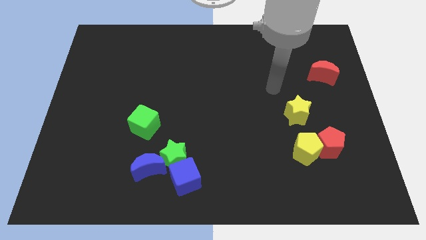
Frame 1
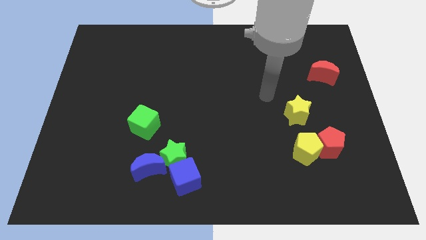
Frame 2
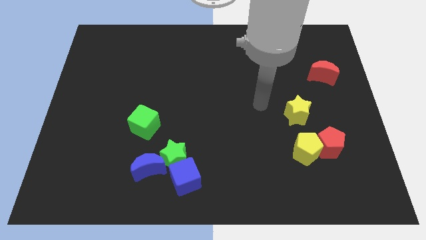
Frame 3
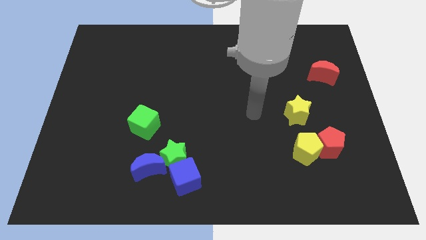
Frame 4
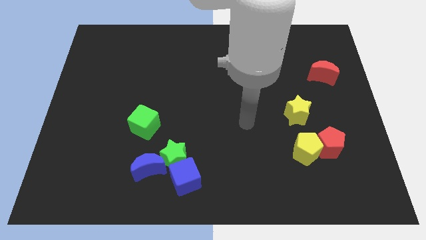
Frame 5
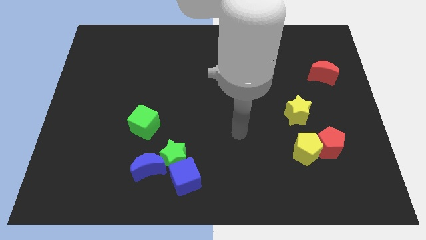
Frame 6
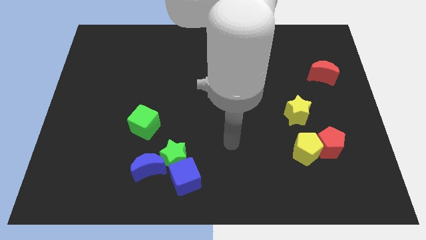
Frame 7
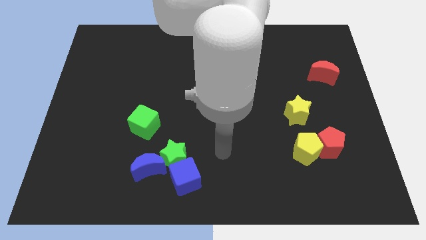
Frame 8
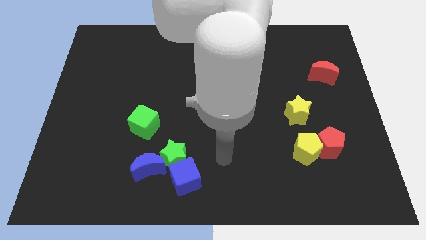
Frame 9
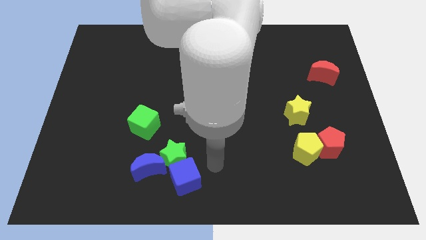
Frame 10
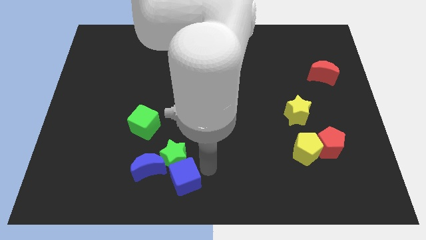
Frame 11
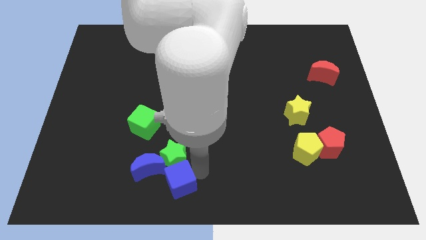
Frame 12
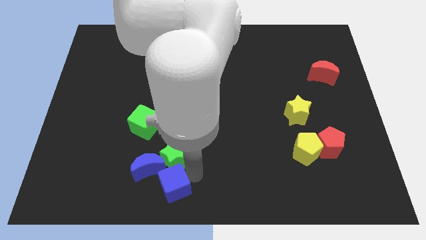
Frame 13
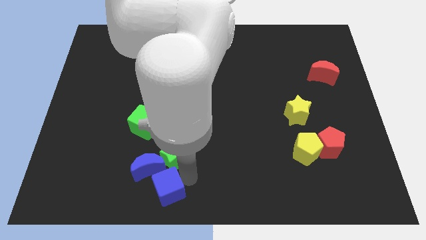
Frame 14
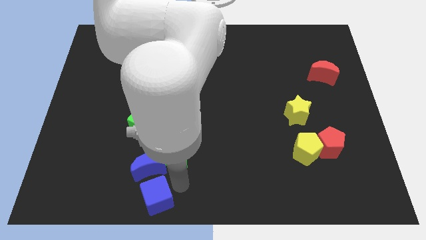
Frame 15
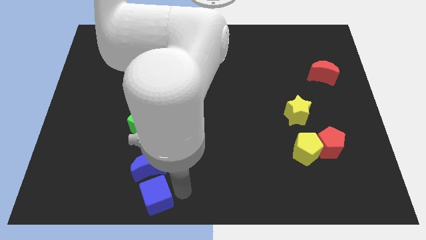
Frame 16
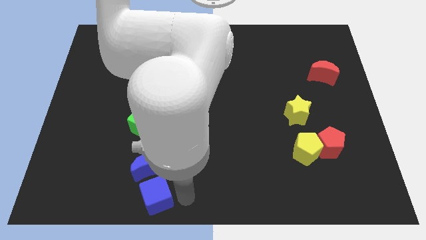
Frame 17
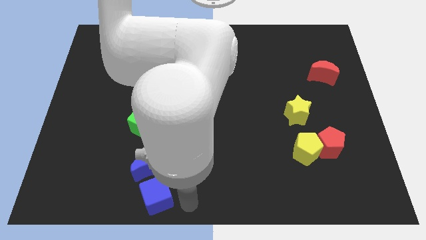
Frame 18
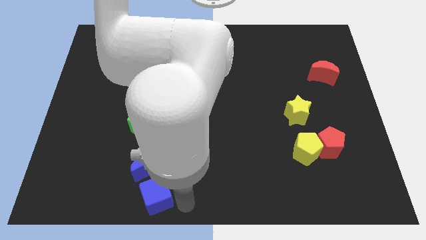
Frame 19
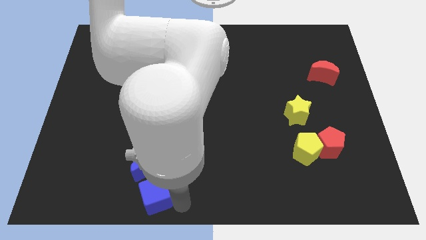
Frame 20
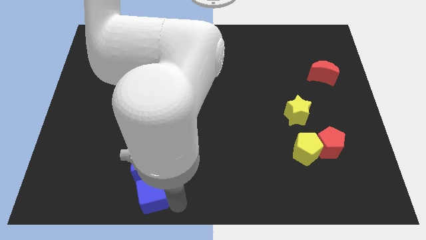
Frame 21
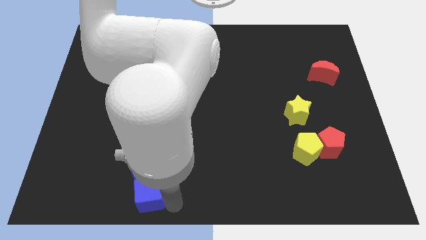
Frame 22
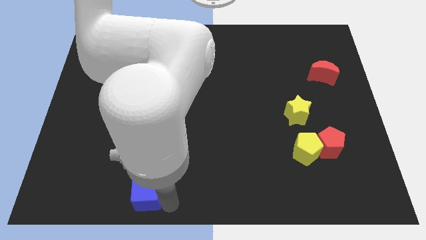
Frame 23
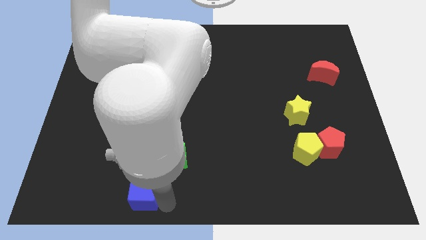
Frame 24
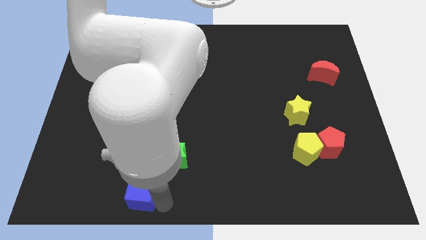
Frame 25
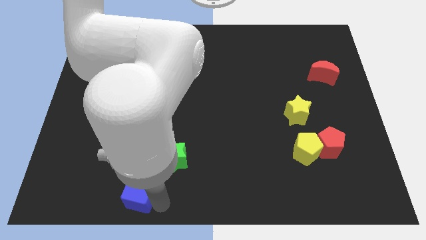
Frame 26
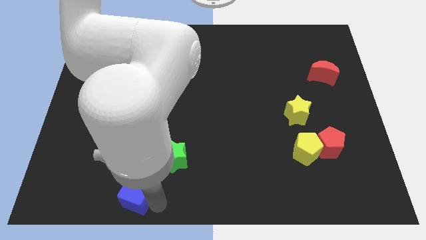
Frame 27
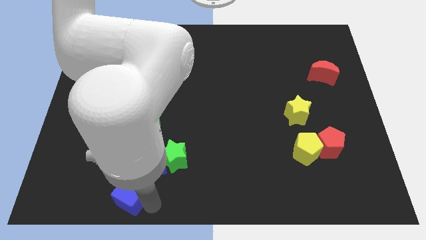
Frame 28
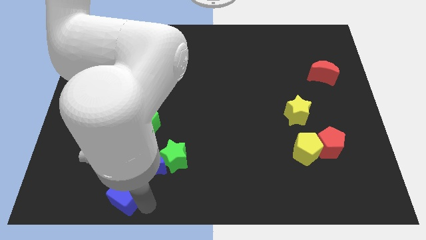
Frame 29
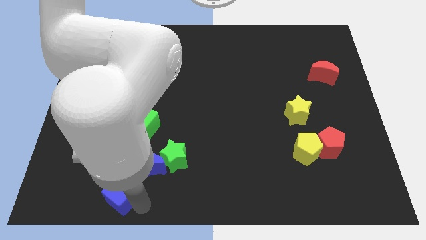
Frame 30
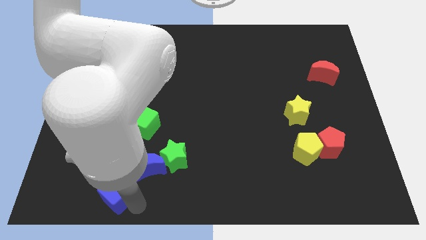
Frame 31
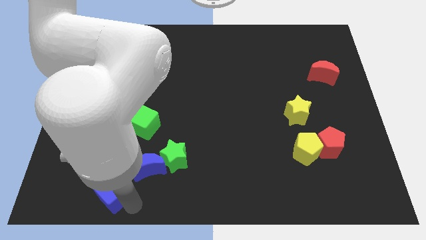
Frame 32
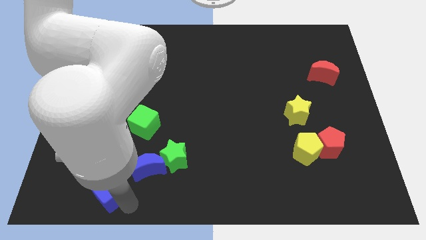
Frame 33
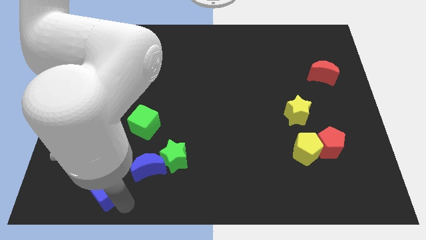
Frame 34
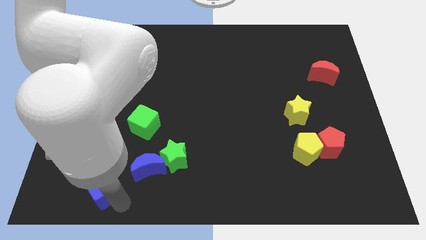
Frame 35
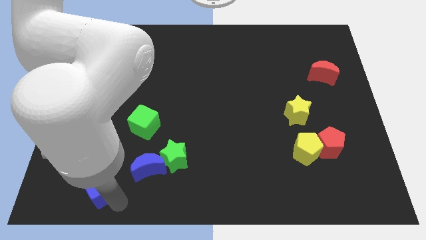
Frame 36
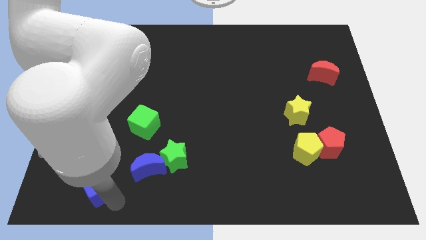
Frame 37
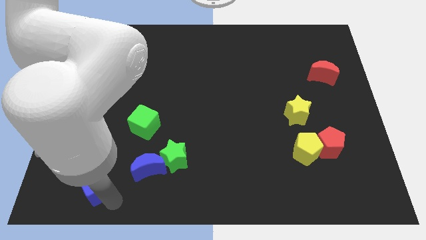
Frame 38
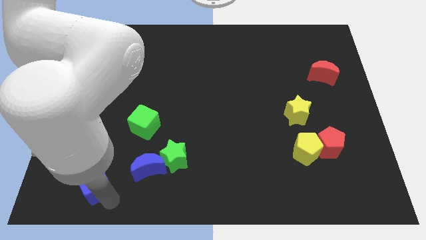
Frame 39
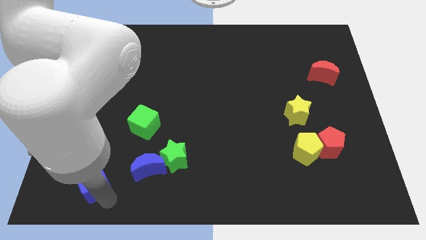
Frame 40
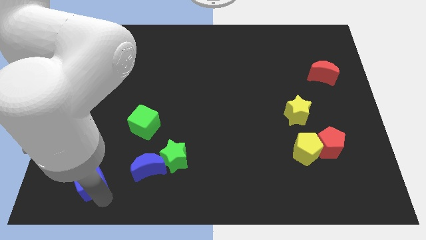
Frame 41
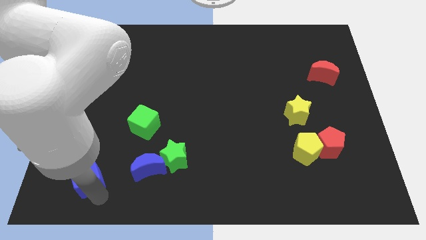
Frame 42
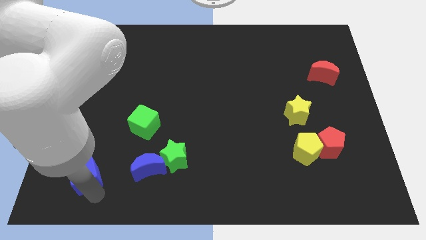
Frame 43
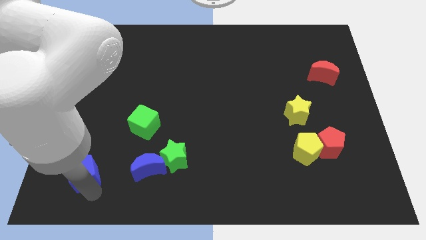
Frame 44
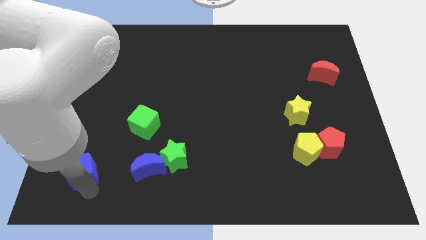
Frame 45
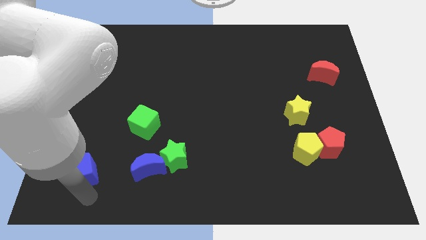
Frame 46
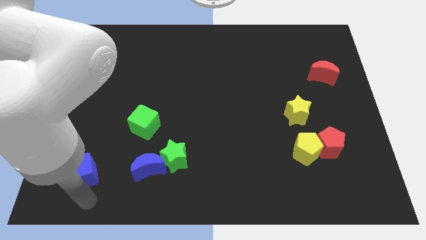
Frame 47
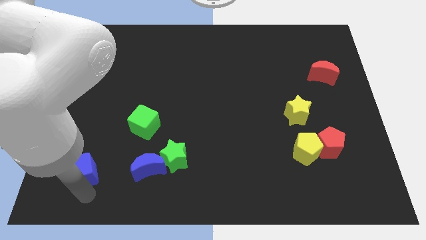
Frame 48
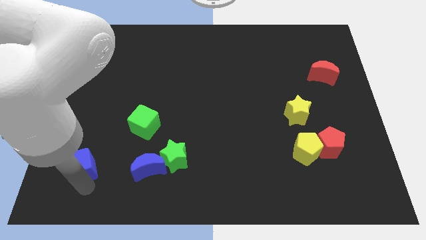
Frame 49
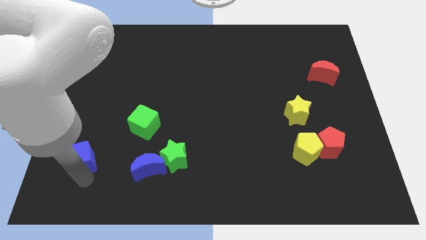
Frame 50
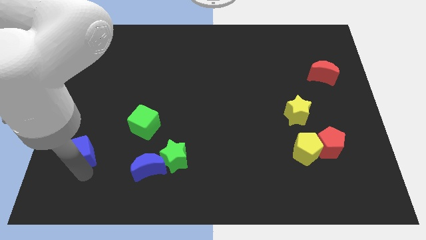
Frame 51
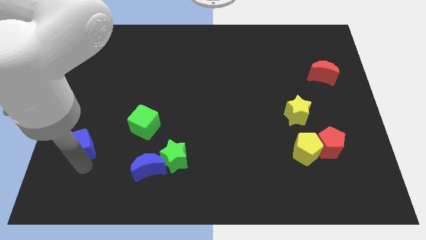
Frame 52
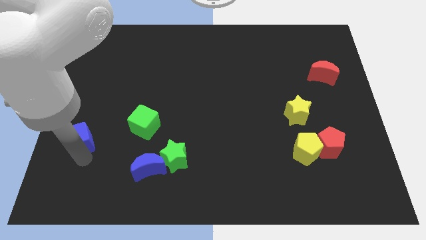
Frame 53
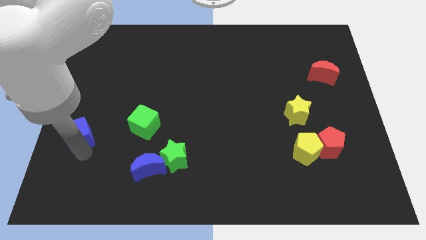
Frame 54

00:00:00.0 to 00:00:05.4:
move the blue cube to the left side

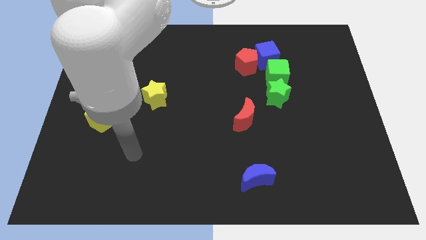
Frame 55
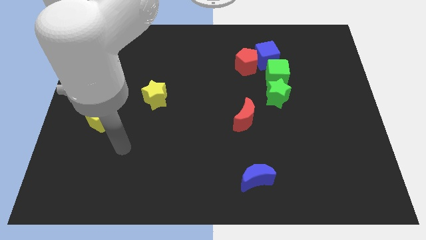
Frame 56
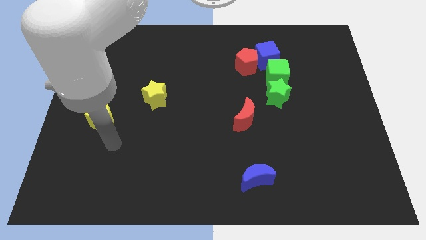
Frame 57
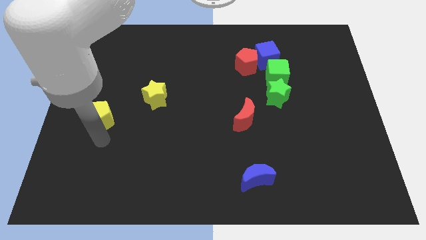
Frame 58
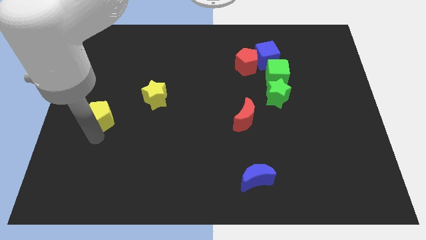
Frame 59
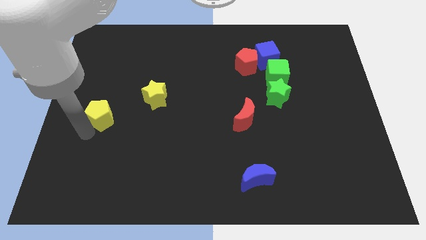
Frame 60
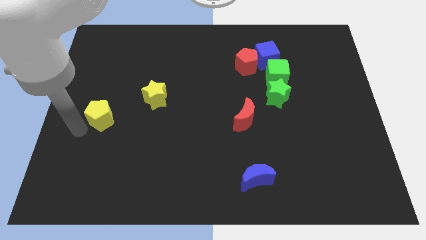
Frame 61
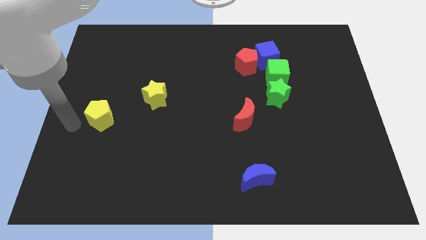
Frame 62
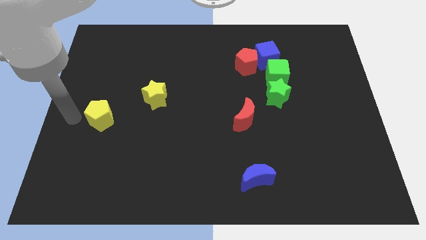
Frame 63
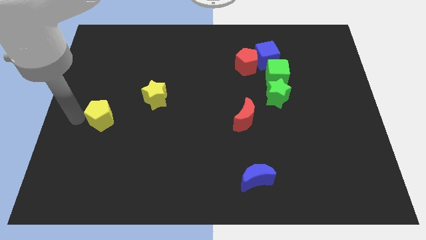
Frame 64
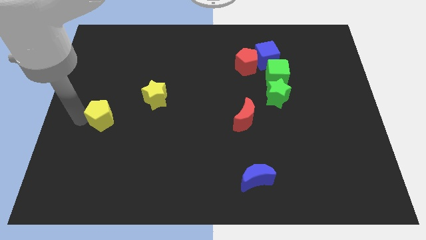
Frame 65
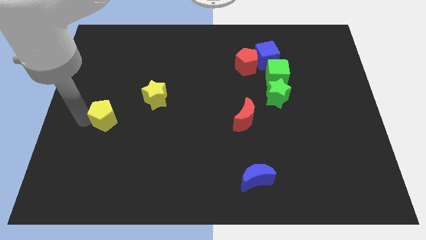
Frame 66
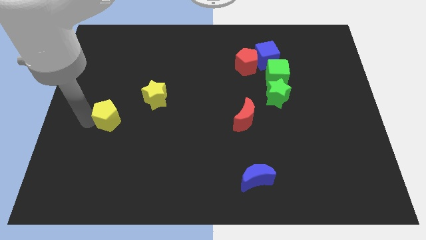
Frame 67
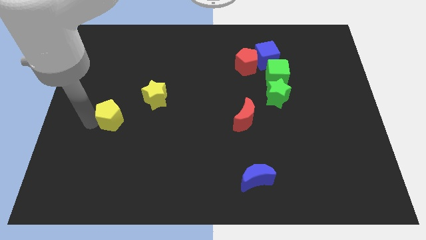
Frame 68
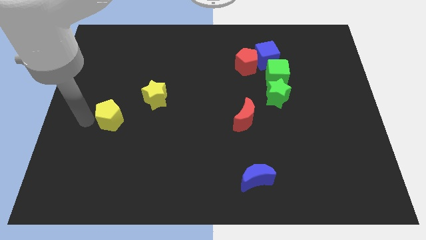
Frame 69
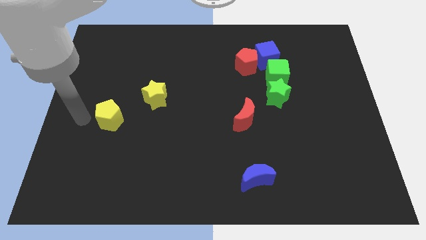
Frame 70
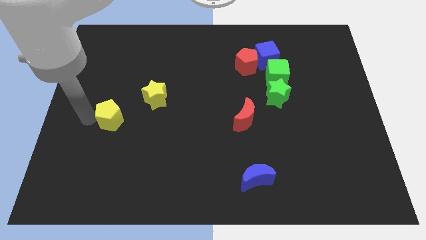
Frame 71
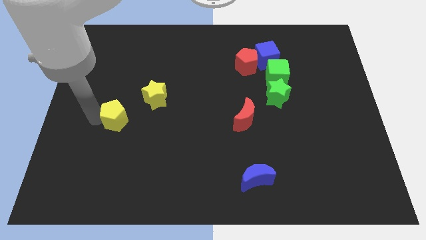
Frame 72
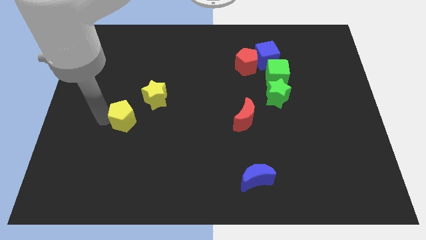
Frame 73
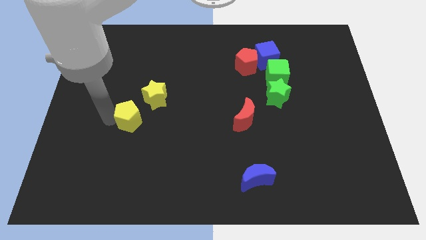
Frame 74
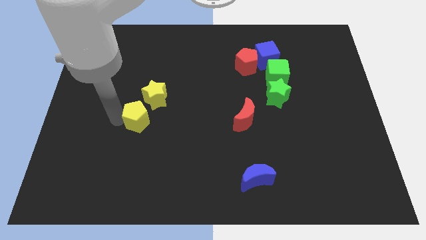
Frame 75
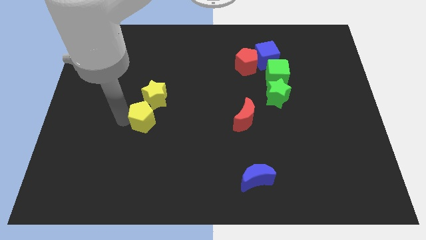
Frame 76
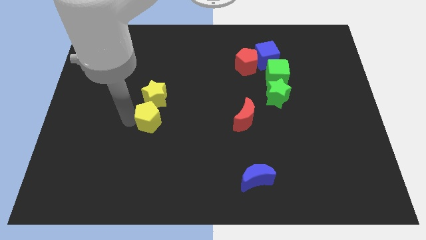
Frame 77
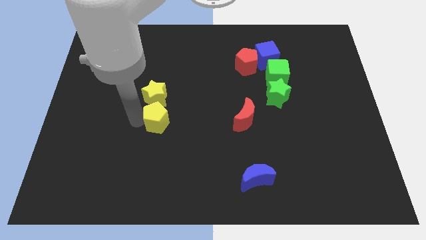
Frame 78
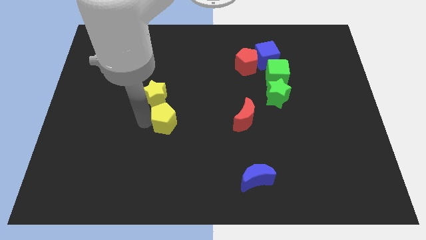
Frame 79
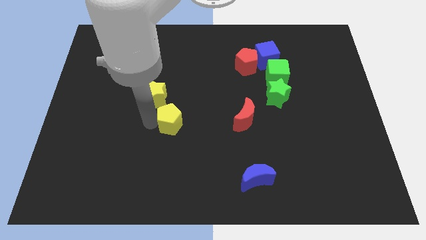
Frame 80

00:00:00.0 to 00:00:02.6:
put the yellow pentagon to the center of the board
